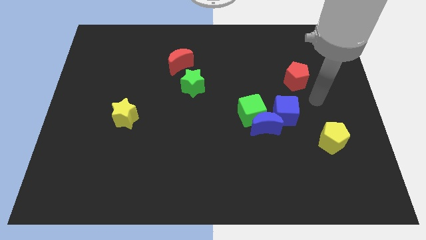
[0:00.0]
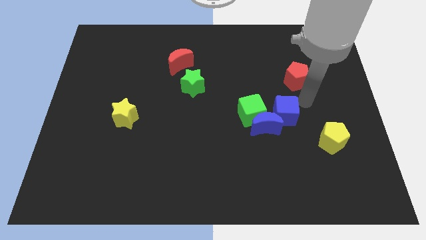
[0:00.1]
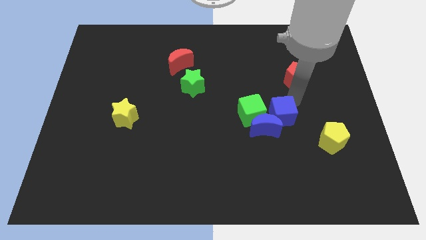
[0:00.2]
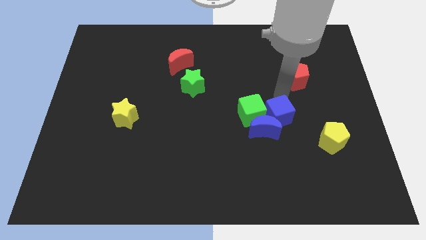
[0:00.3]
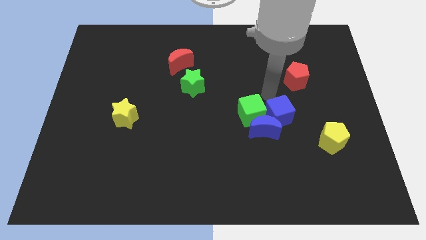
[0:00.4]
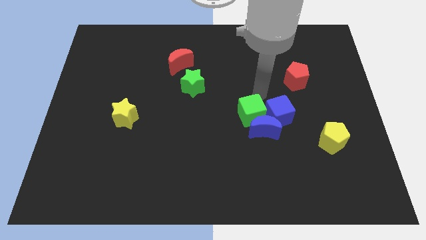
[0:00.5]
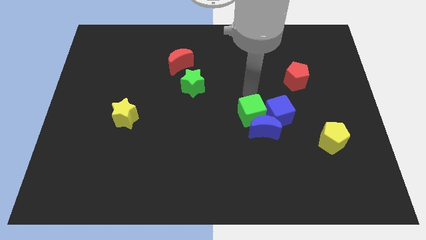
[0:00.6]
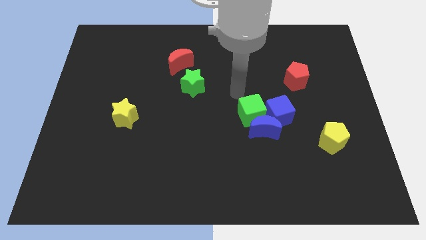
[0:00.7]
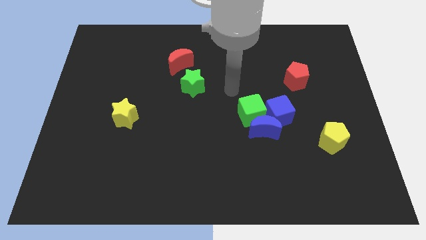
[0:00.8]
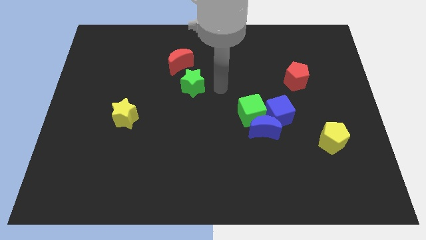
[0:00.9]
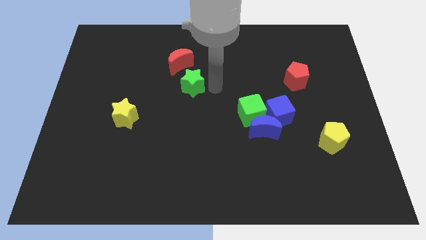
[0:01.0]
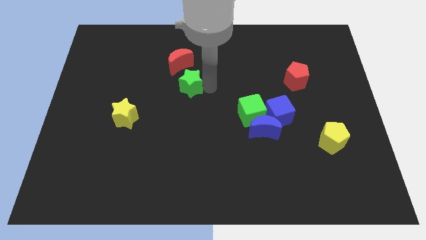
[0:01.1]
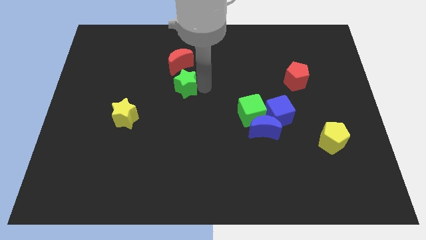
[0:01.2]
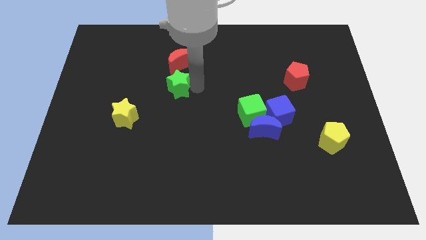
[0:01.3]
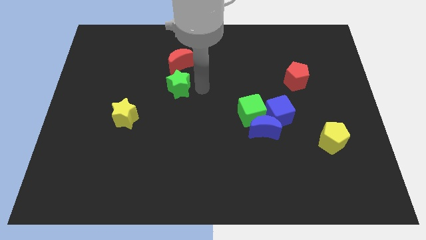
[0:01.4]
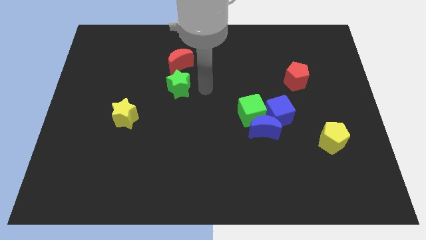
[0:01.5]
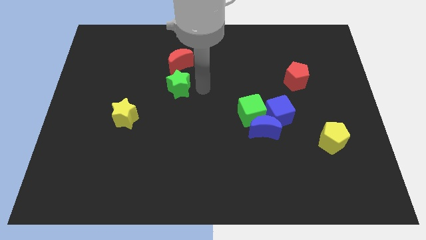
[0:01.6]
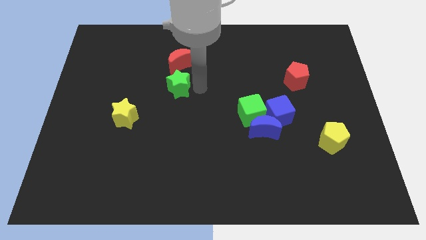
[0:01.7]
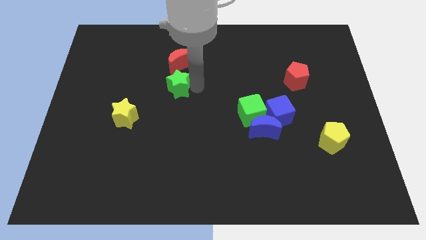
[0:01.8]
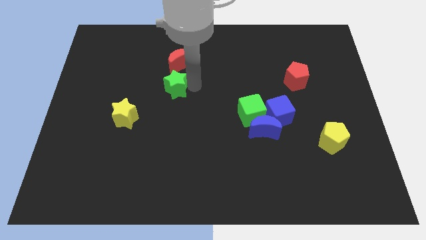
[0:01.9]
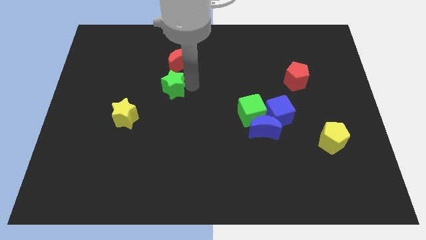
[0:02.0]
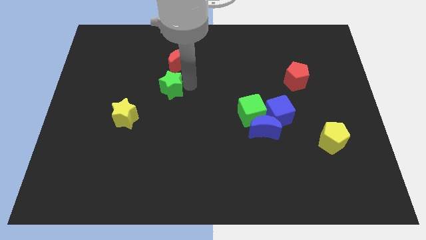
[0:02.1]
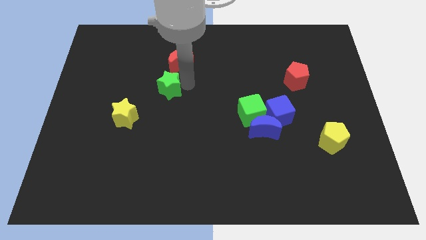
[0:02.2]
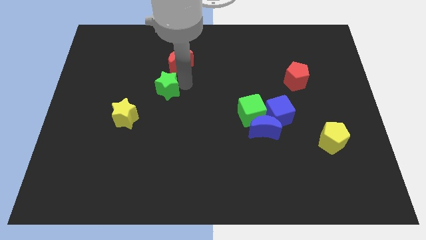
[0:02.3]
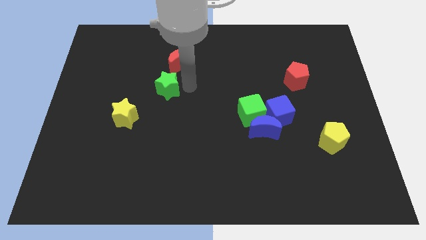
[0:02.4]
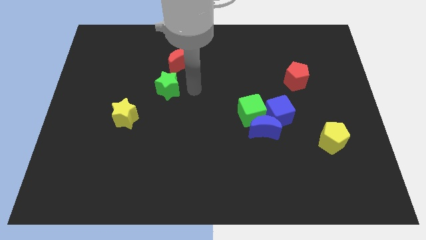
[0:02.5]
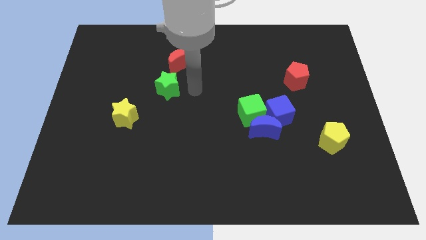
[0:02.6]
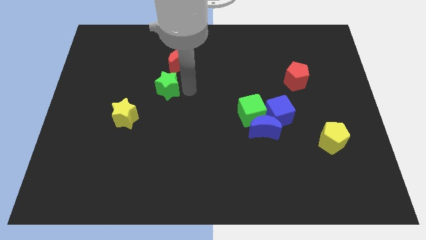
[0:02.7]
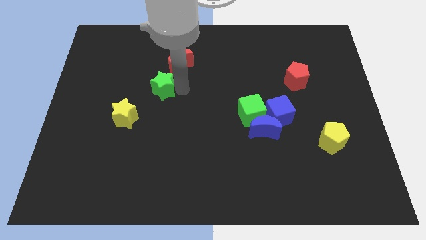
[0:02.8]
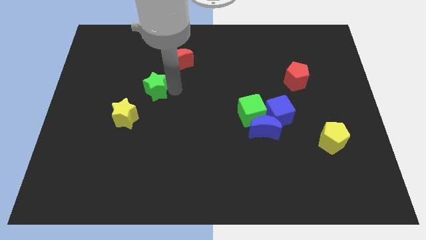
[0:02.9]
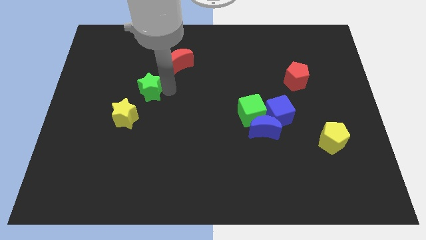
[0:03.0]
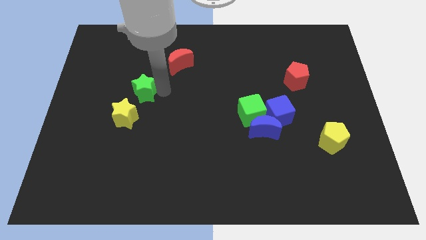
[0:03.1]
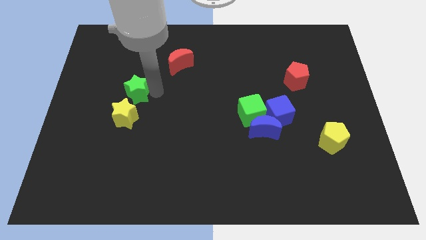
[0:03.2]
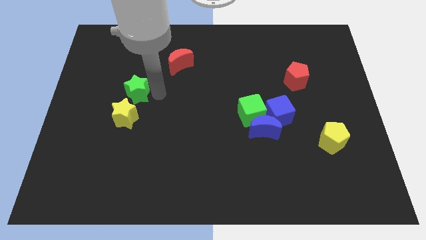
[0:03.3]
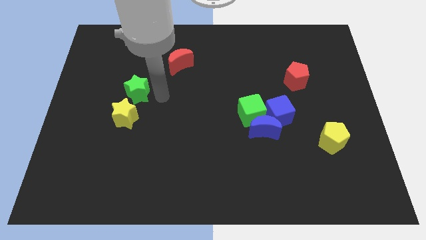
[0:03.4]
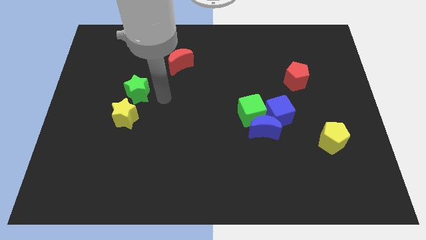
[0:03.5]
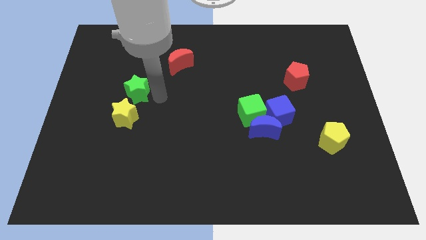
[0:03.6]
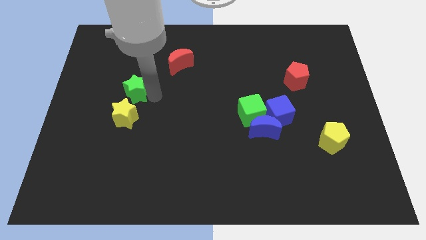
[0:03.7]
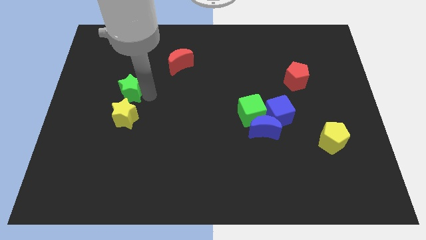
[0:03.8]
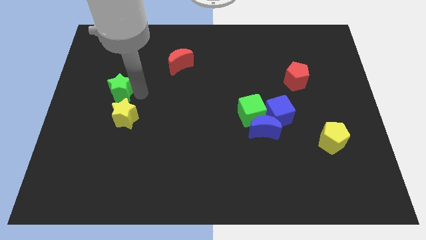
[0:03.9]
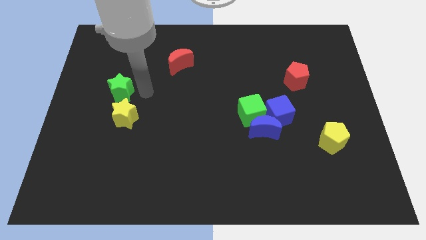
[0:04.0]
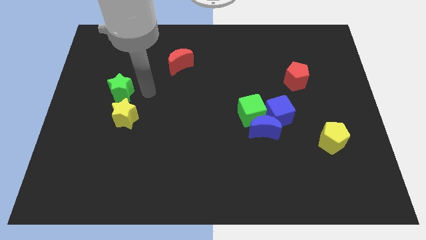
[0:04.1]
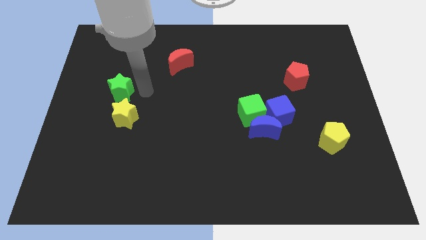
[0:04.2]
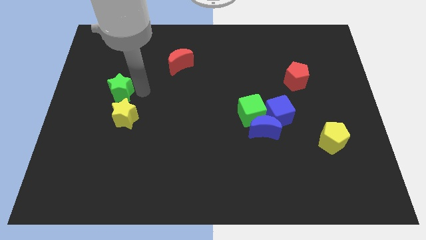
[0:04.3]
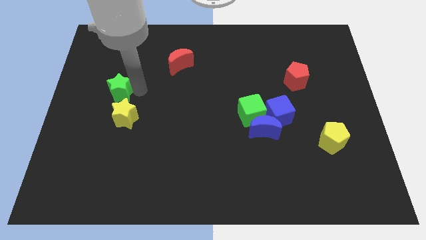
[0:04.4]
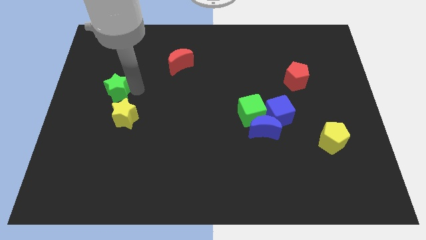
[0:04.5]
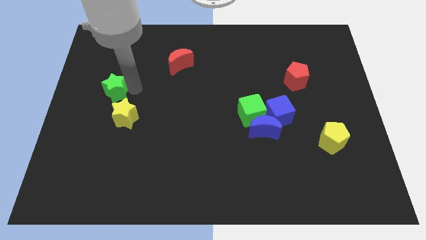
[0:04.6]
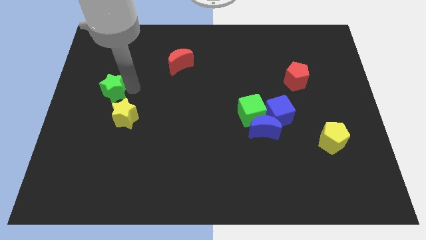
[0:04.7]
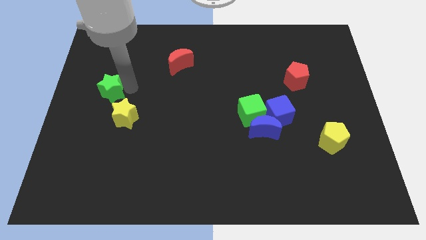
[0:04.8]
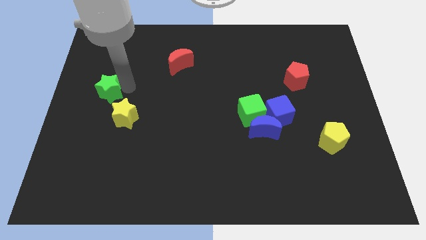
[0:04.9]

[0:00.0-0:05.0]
slide the green star to the left side of the board
